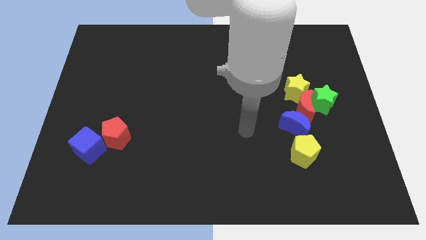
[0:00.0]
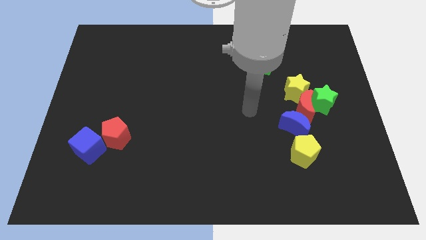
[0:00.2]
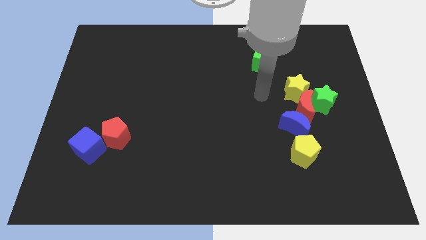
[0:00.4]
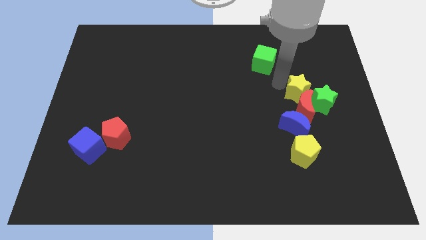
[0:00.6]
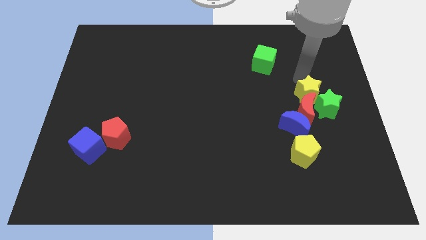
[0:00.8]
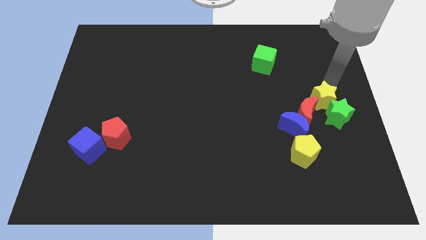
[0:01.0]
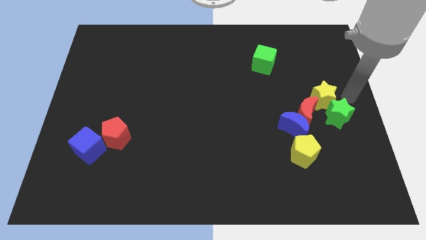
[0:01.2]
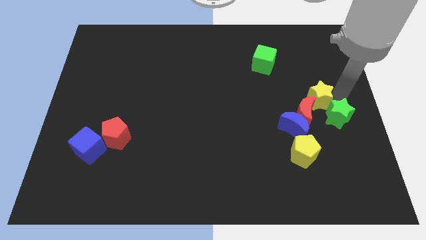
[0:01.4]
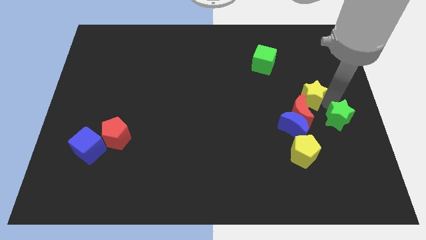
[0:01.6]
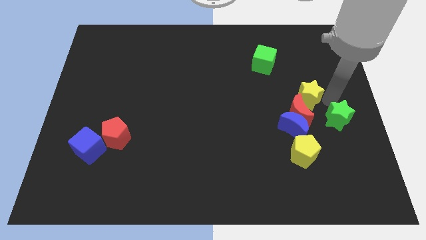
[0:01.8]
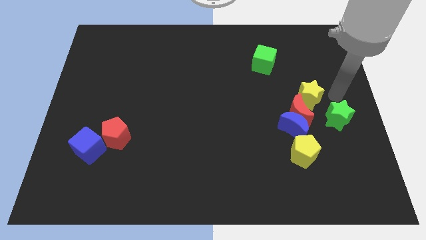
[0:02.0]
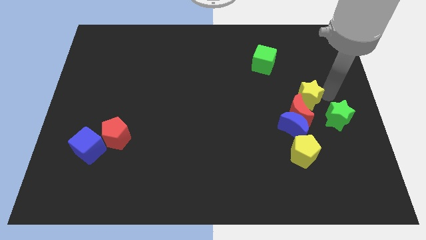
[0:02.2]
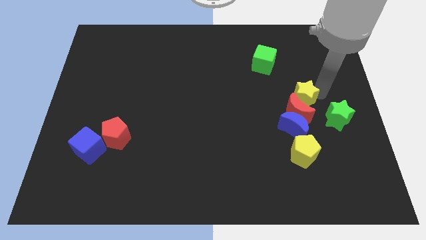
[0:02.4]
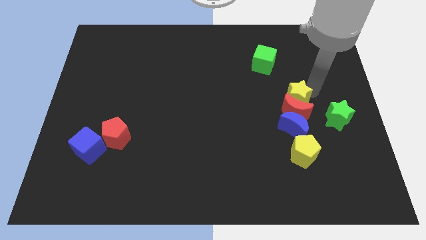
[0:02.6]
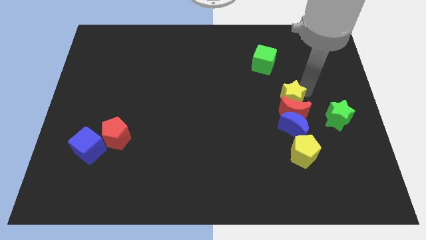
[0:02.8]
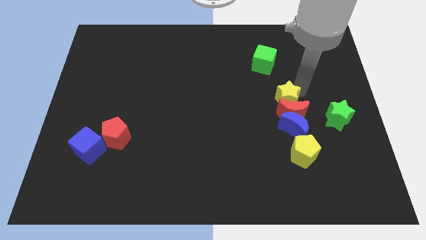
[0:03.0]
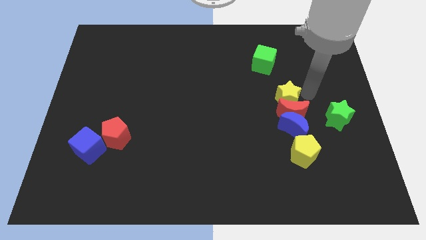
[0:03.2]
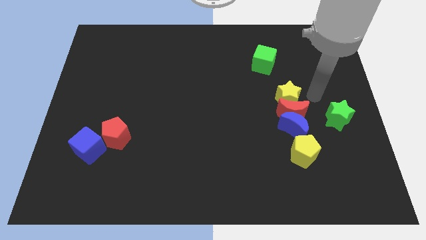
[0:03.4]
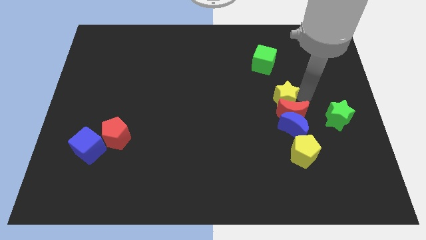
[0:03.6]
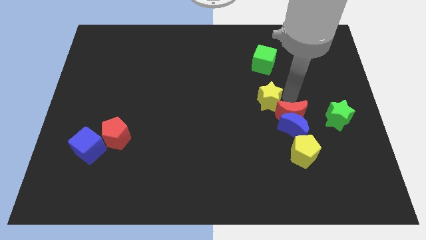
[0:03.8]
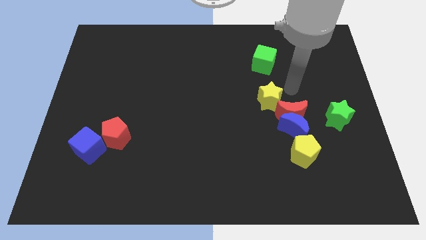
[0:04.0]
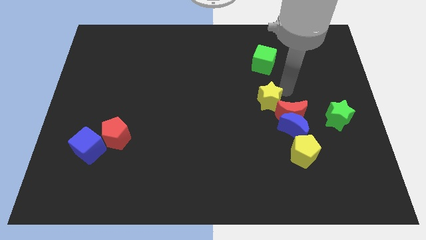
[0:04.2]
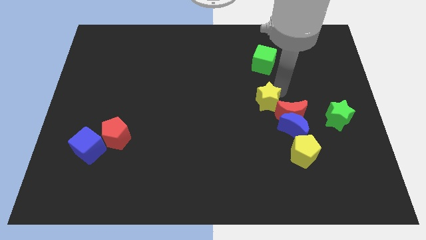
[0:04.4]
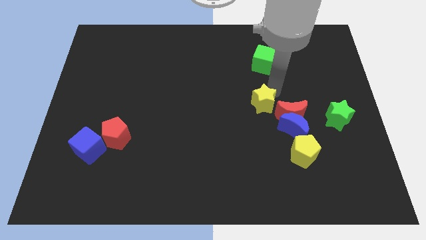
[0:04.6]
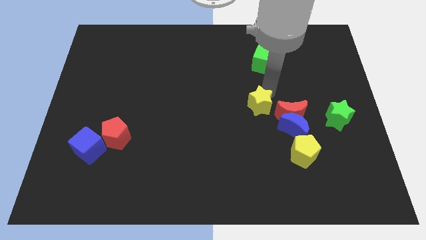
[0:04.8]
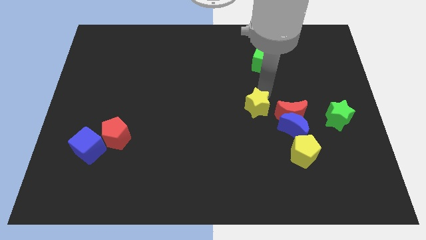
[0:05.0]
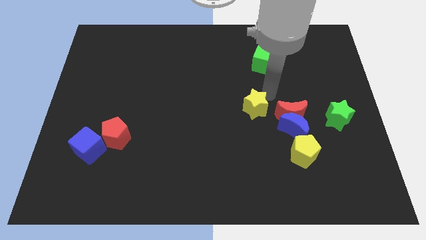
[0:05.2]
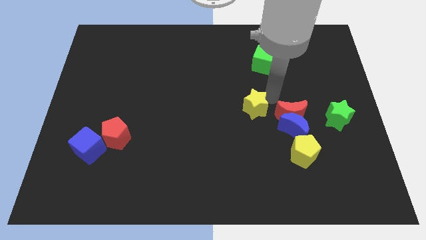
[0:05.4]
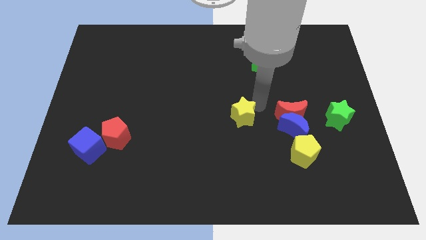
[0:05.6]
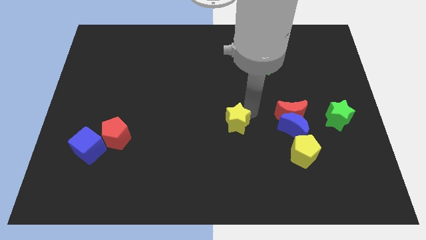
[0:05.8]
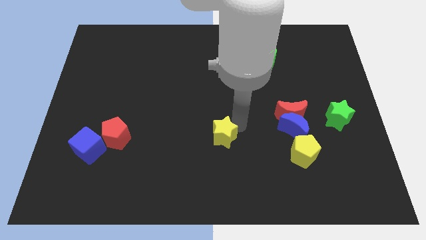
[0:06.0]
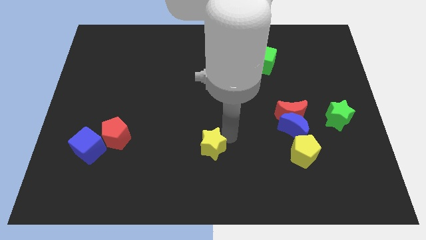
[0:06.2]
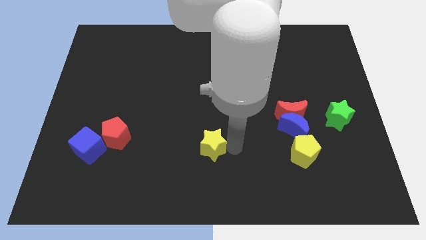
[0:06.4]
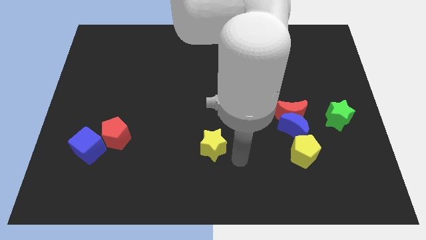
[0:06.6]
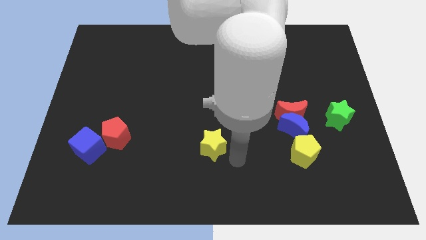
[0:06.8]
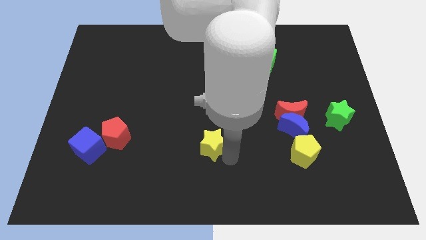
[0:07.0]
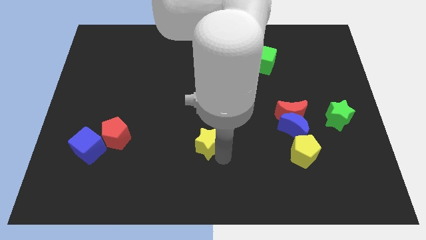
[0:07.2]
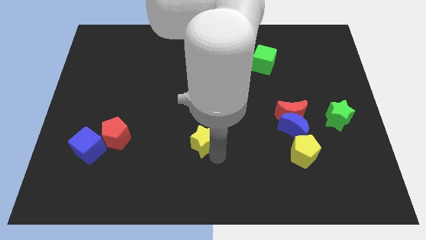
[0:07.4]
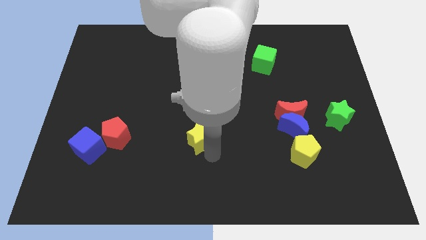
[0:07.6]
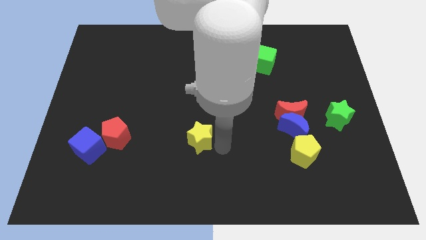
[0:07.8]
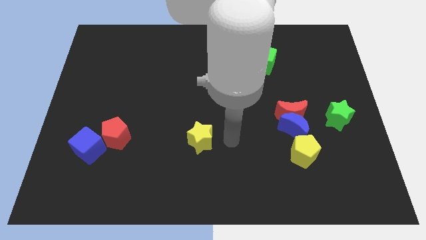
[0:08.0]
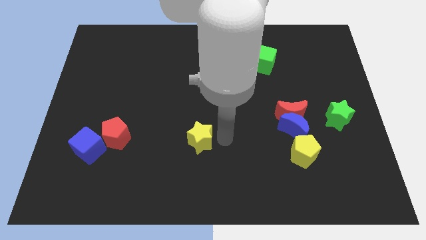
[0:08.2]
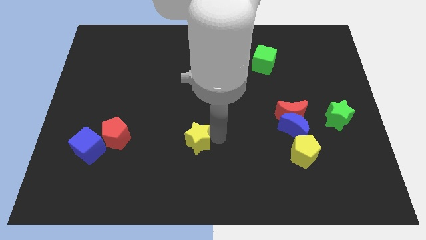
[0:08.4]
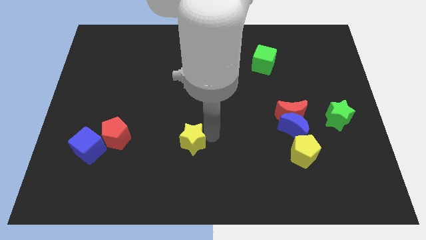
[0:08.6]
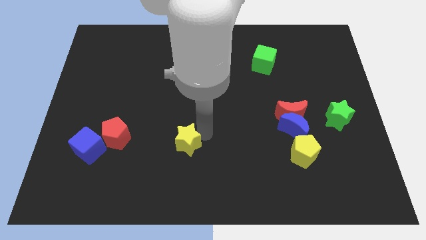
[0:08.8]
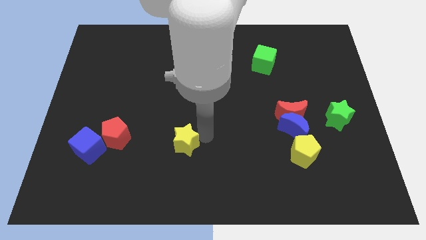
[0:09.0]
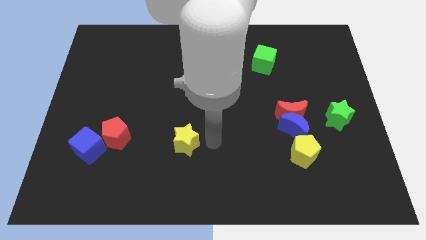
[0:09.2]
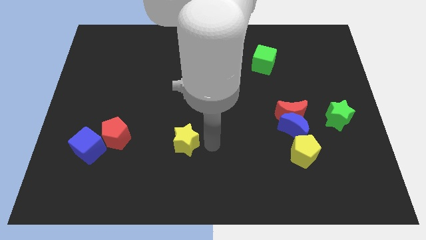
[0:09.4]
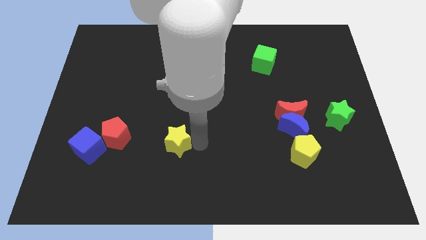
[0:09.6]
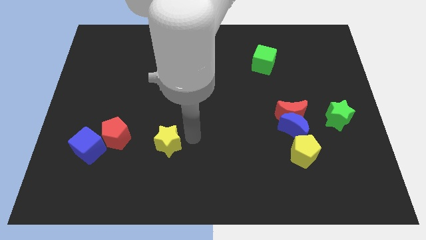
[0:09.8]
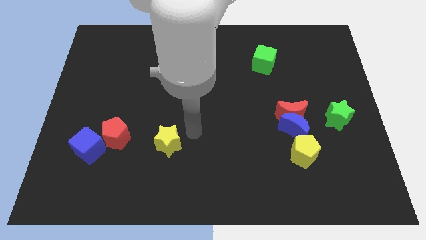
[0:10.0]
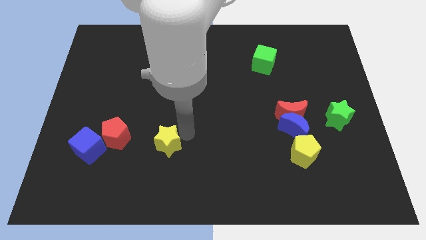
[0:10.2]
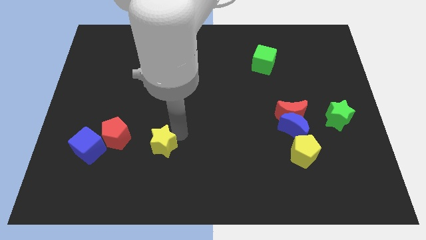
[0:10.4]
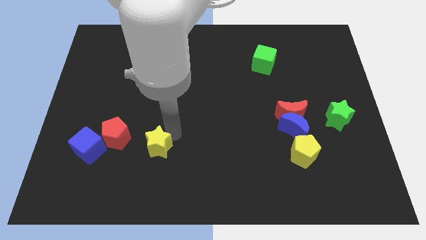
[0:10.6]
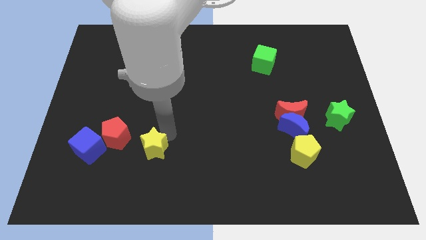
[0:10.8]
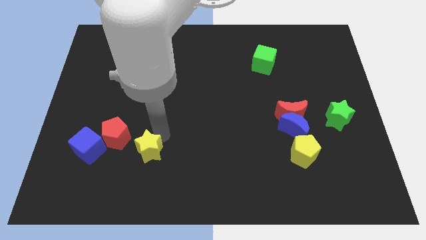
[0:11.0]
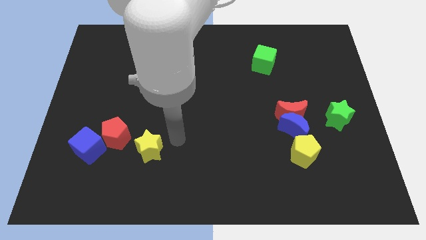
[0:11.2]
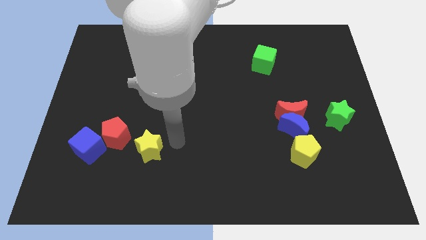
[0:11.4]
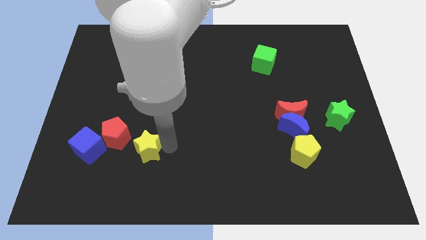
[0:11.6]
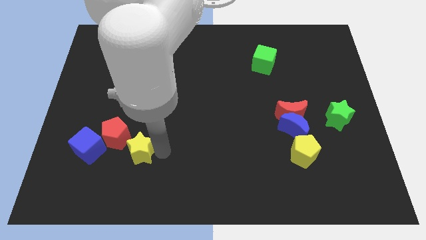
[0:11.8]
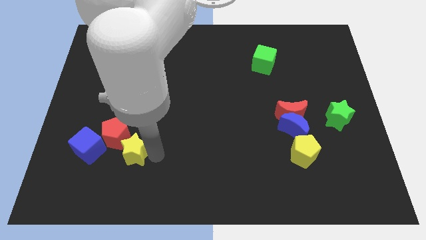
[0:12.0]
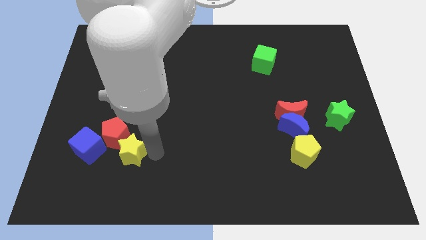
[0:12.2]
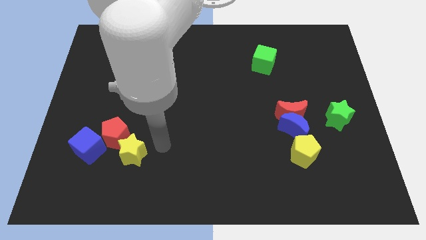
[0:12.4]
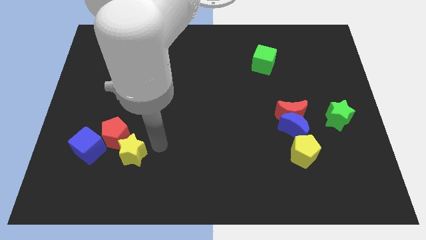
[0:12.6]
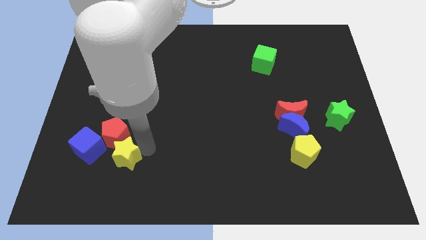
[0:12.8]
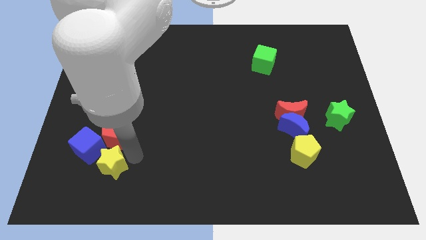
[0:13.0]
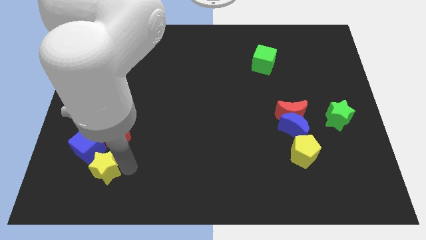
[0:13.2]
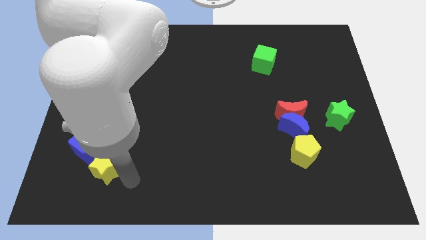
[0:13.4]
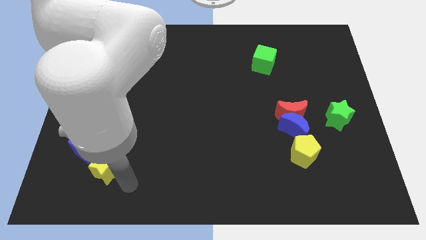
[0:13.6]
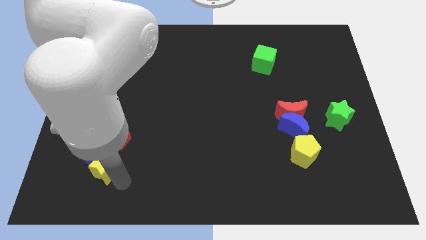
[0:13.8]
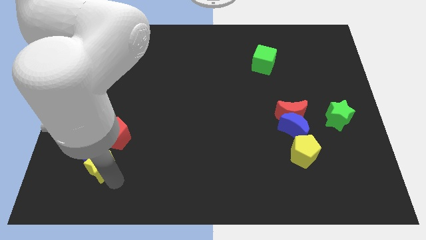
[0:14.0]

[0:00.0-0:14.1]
push the yellow star diagonally down and to the left of the red pentagon
